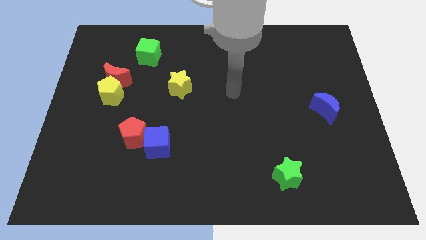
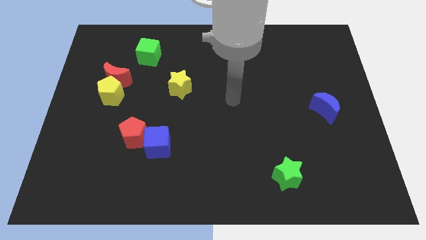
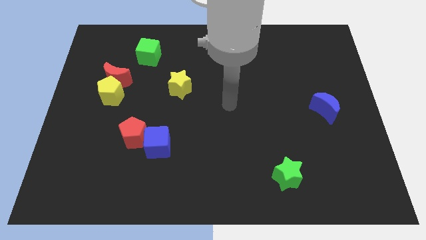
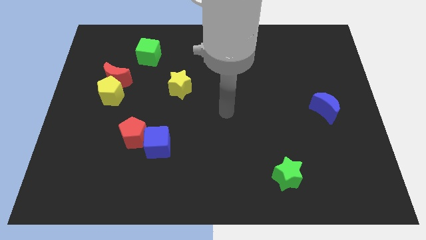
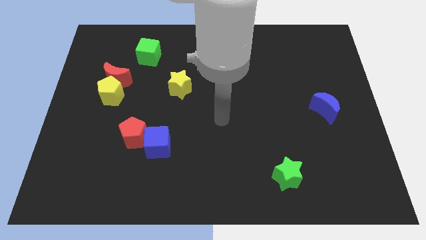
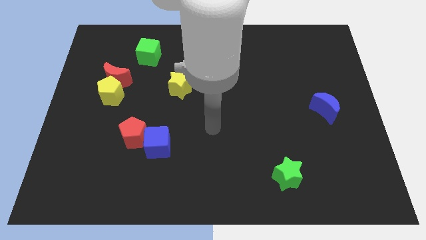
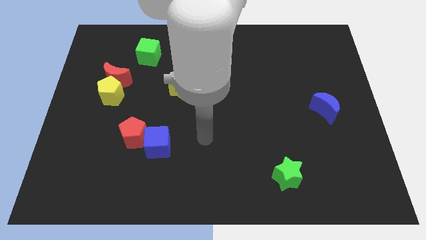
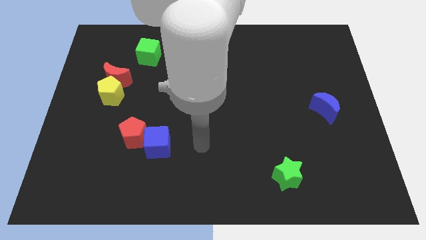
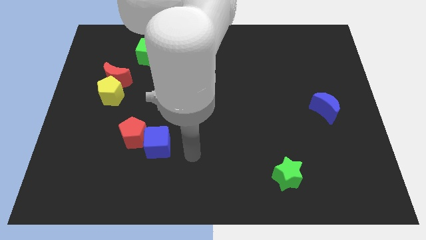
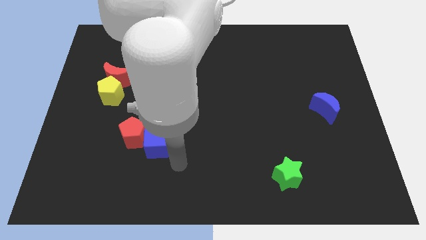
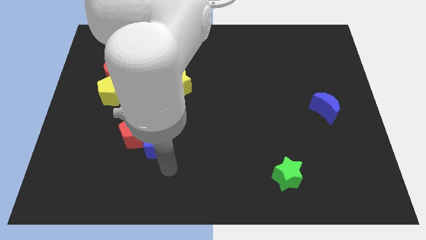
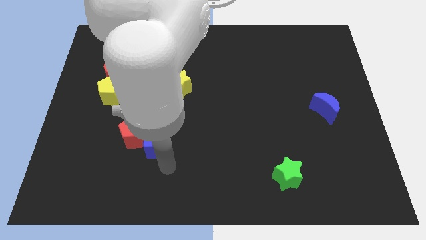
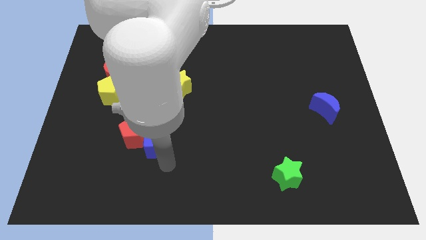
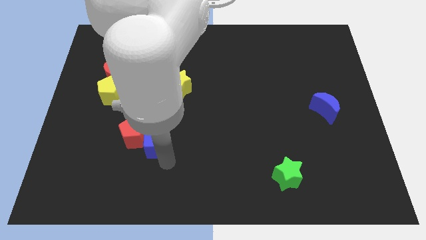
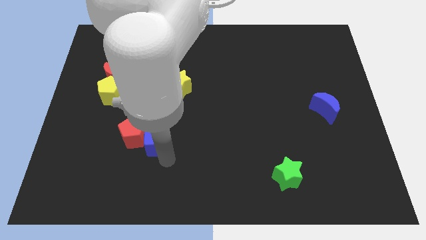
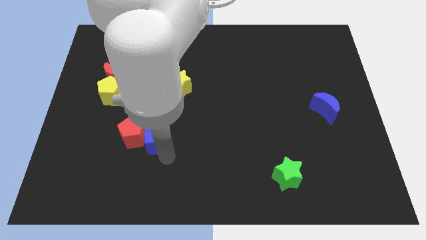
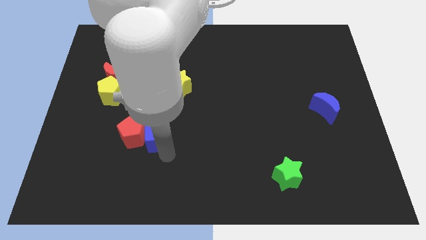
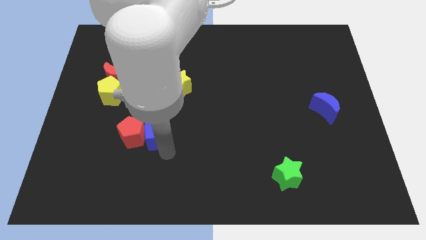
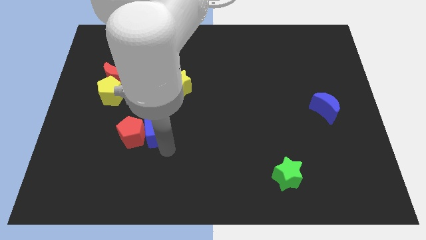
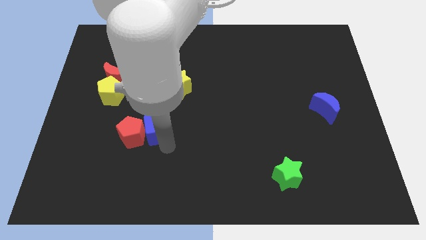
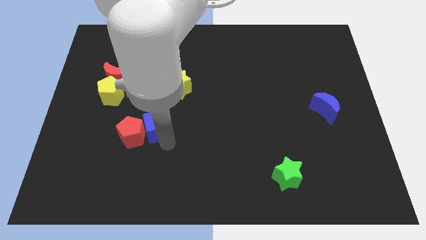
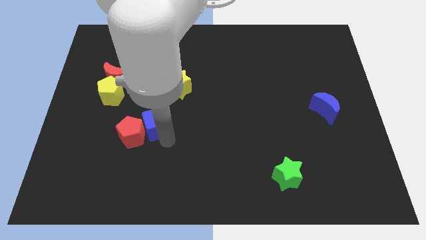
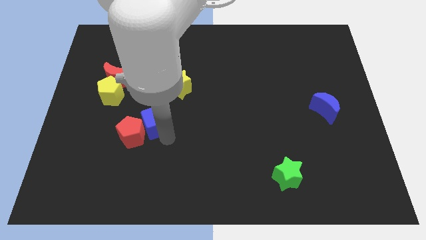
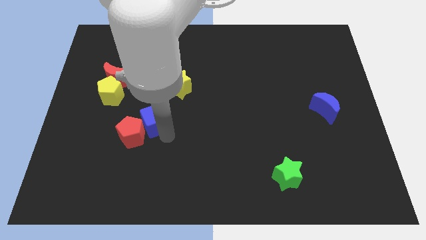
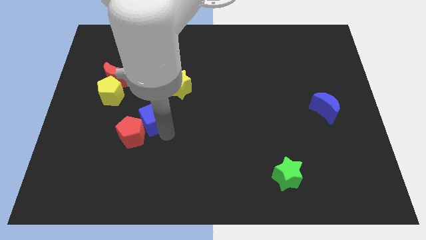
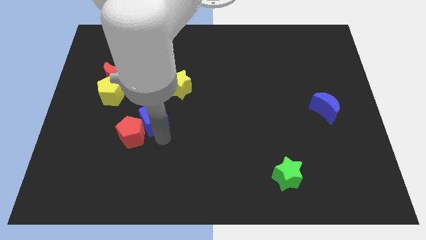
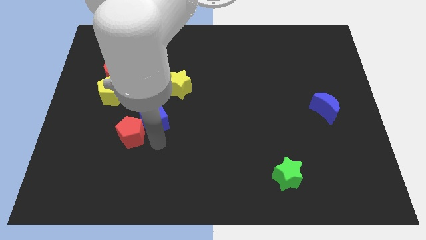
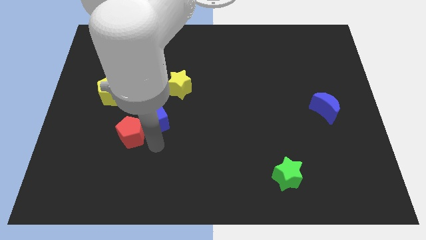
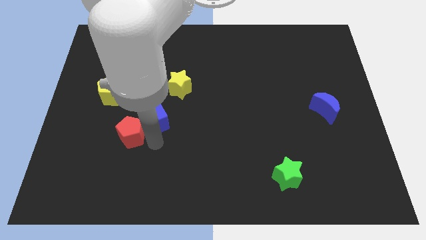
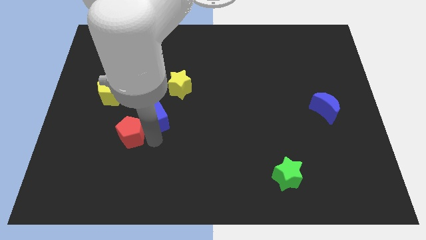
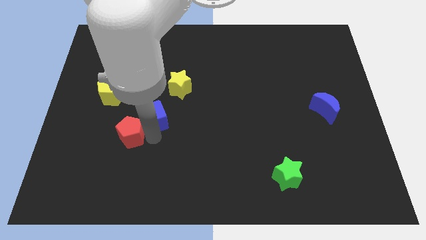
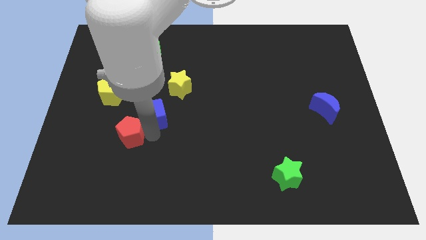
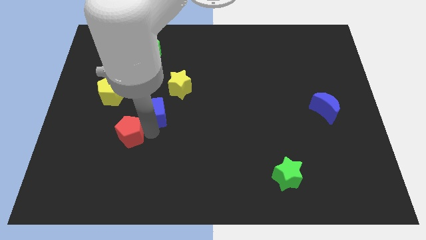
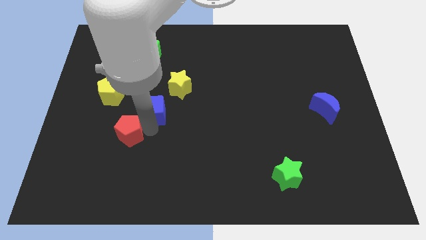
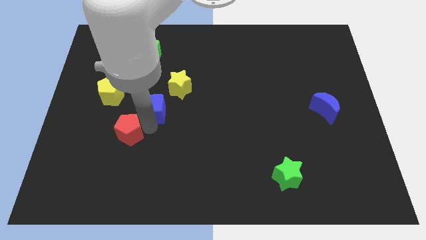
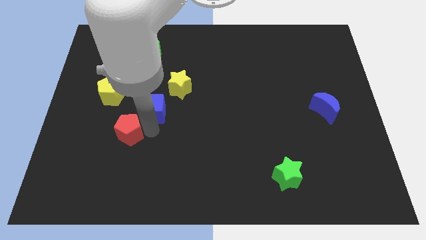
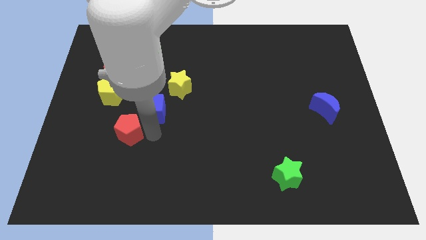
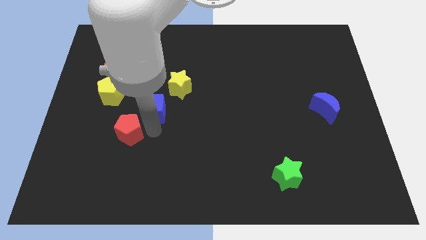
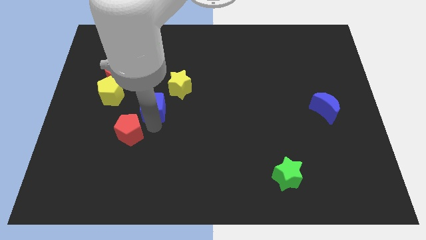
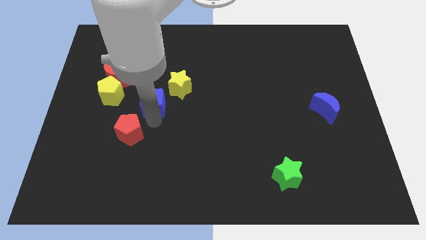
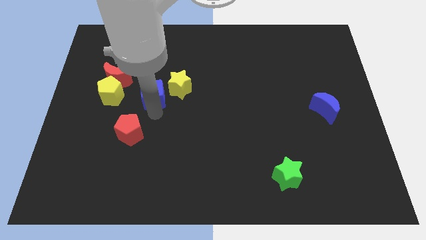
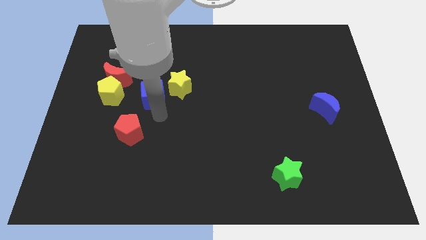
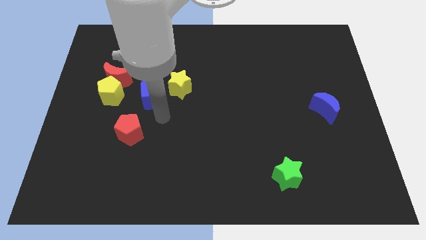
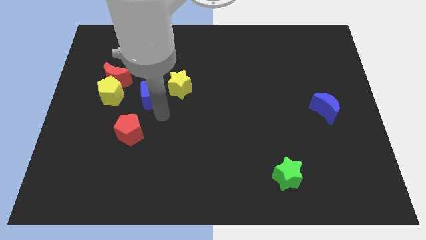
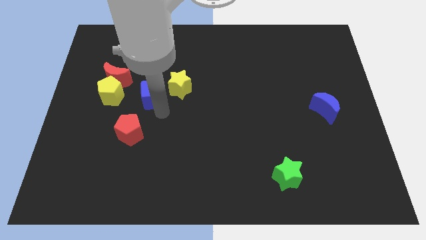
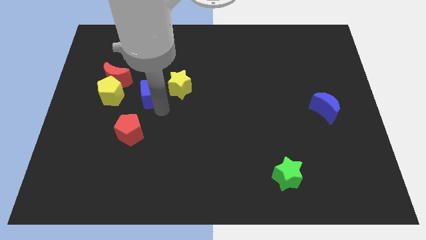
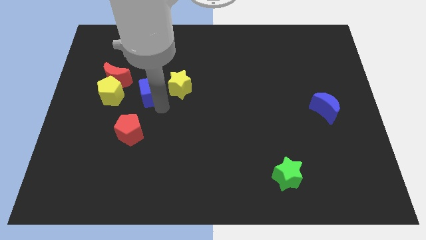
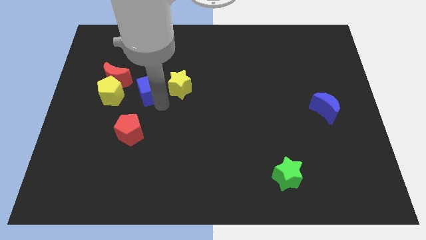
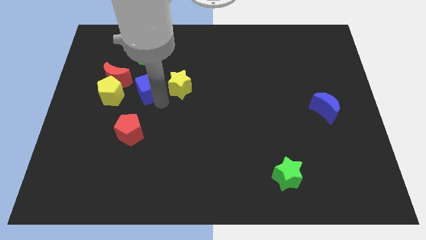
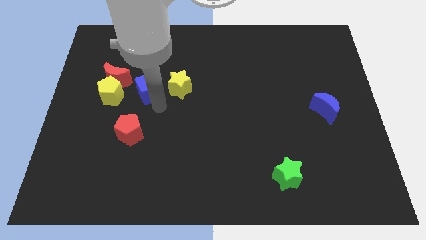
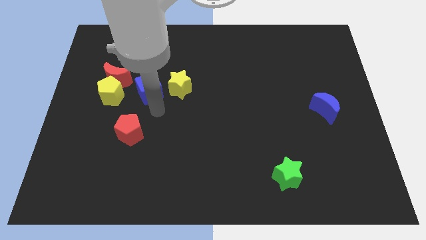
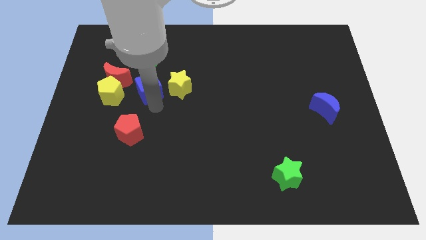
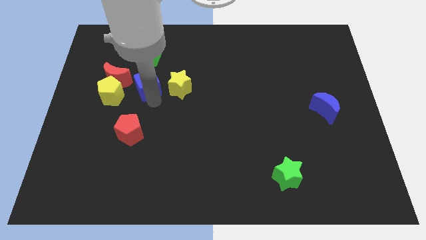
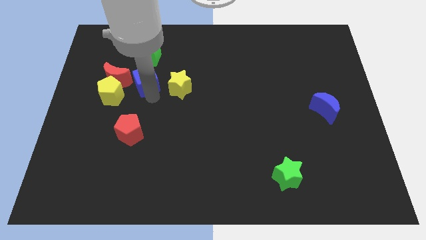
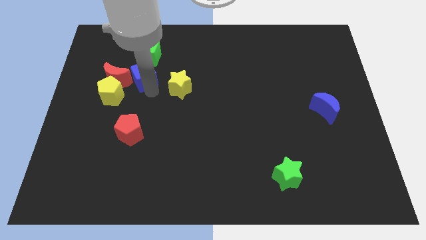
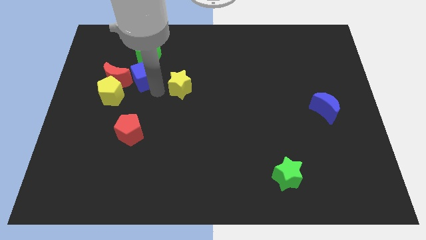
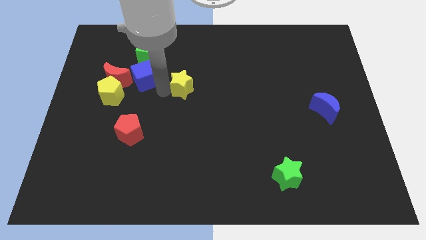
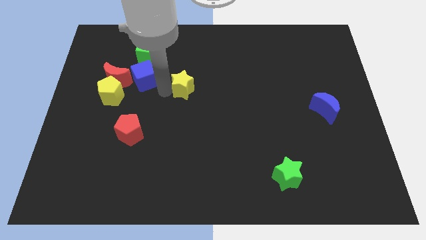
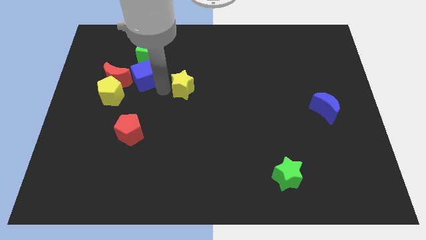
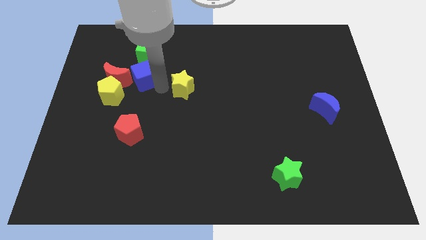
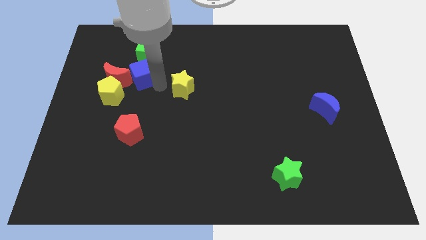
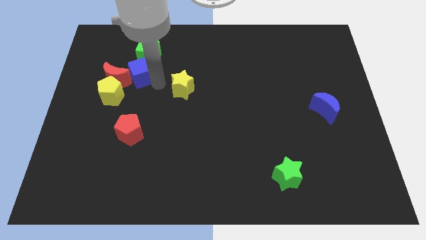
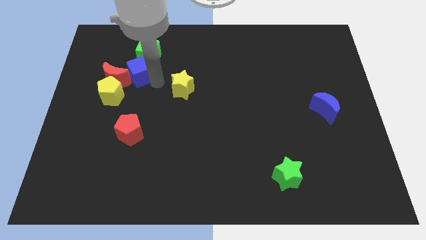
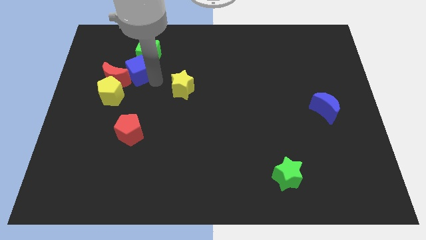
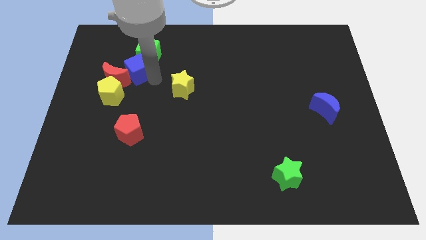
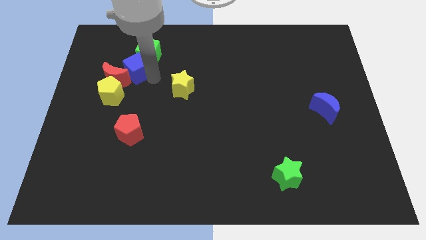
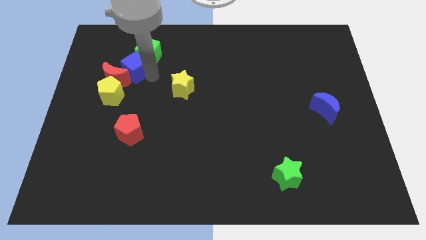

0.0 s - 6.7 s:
put the blue cube to the top of the yellow pentagon

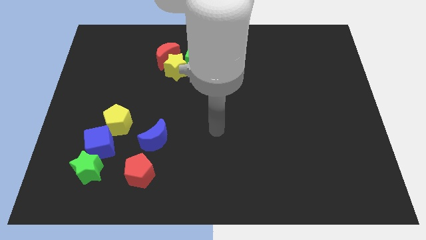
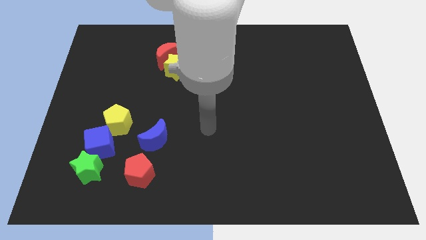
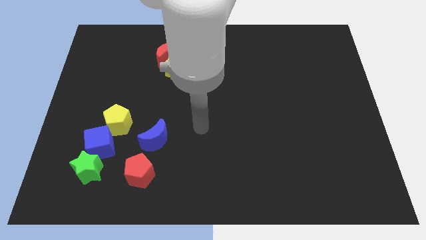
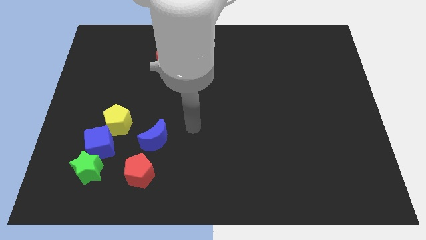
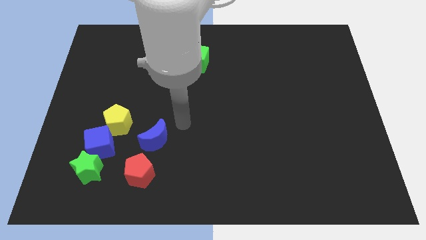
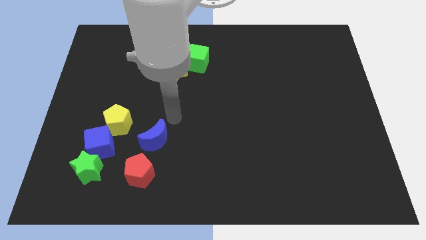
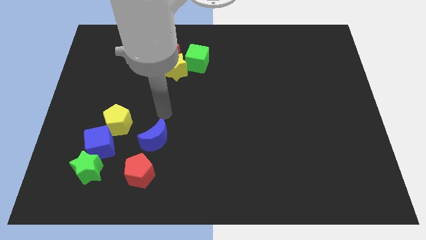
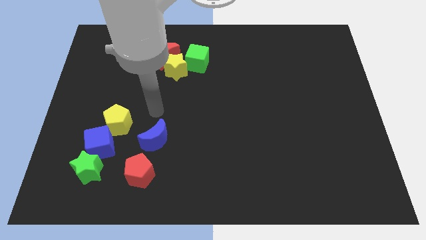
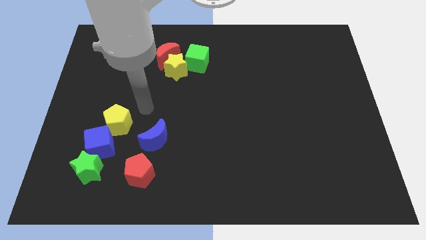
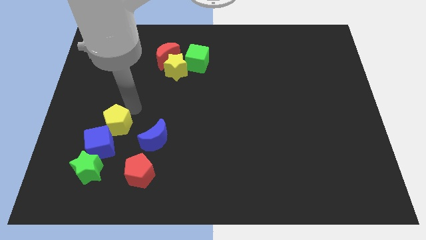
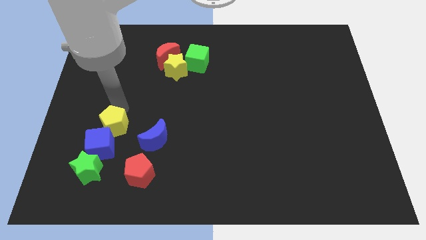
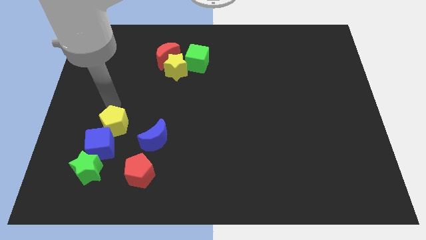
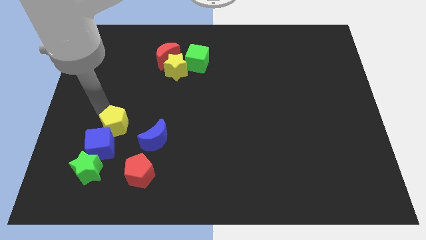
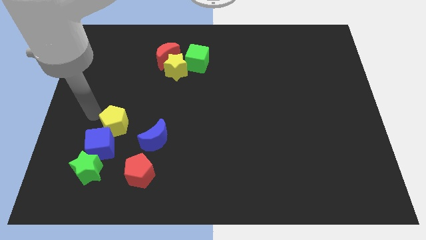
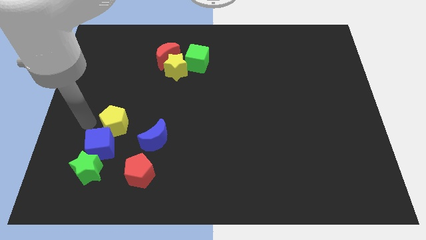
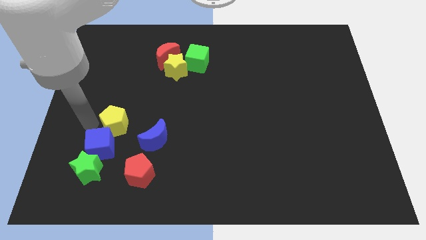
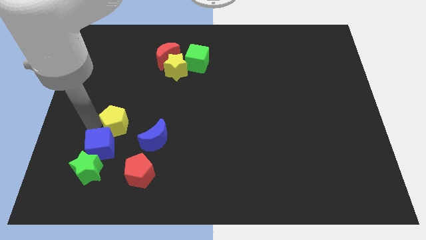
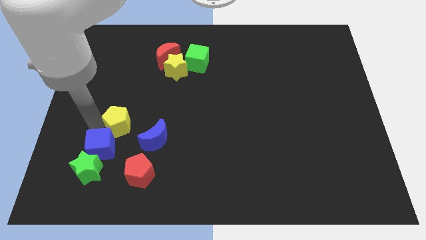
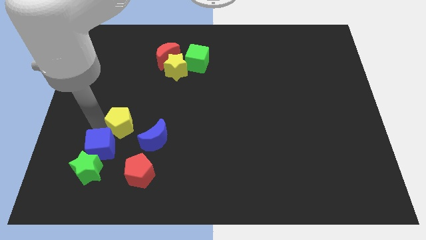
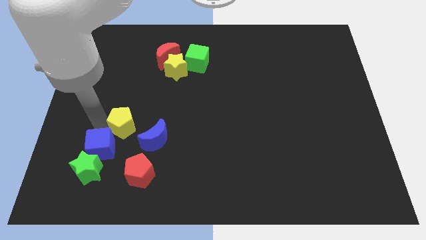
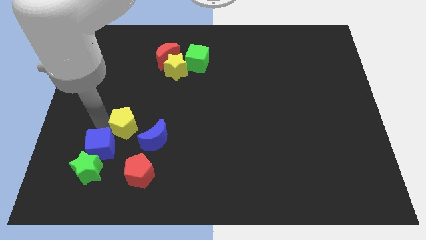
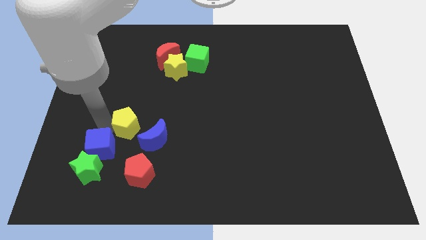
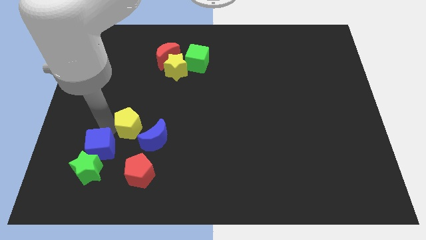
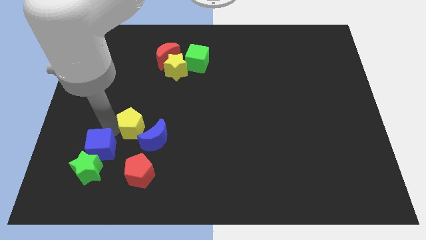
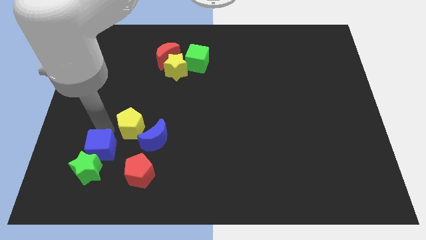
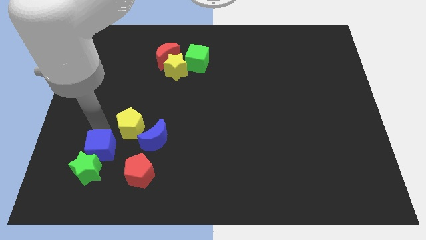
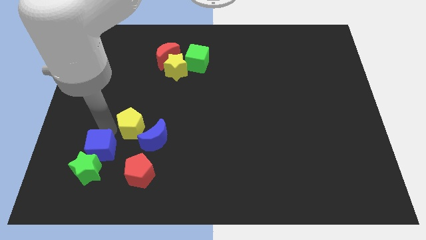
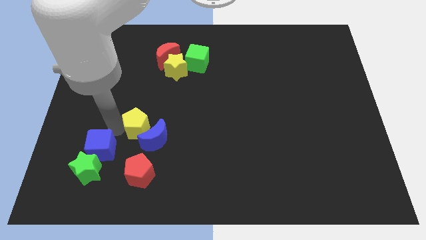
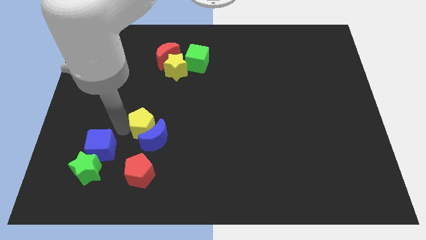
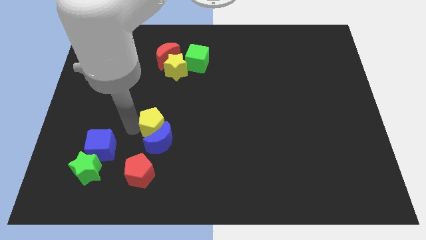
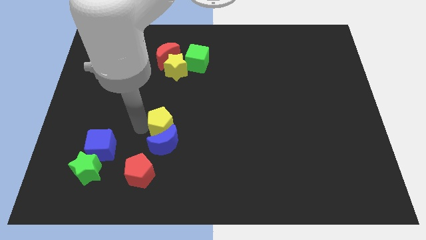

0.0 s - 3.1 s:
move the yellow pentagon to the top right of the blue moon
